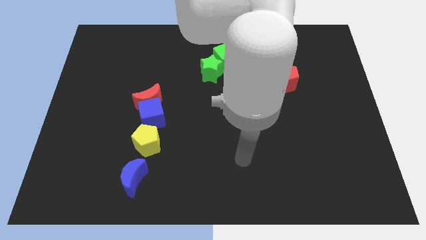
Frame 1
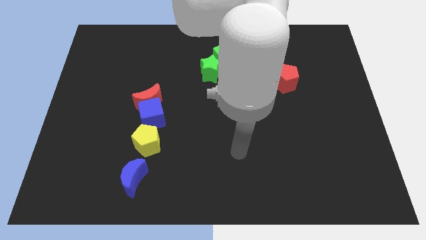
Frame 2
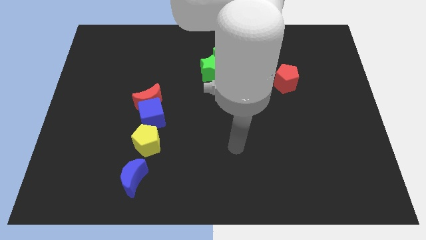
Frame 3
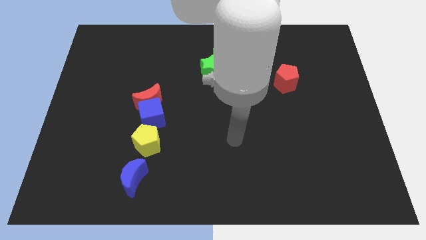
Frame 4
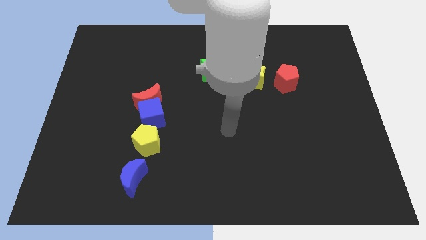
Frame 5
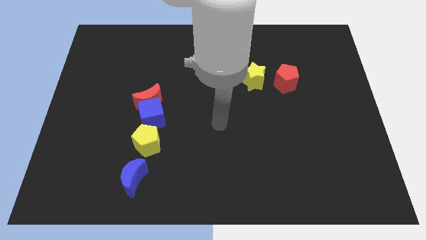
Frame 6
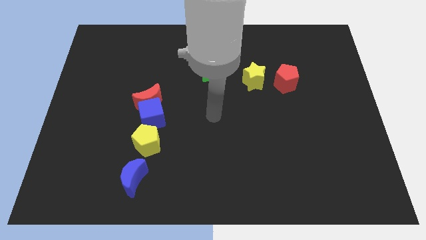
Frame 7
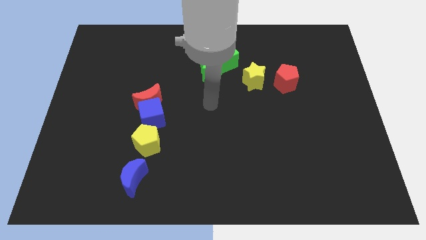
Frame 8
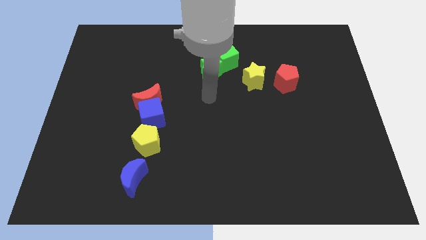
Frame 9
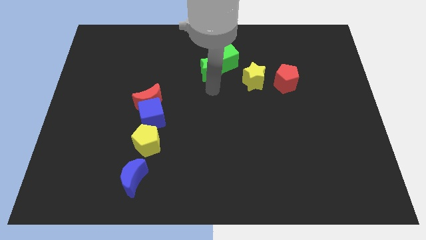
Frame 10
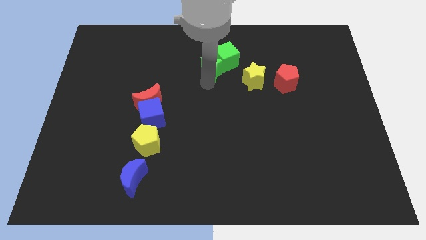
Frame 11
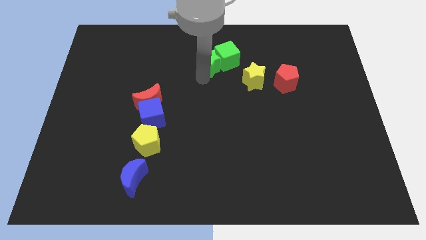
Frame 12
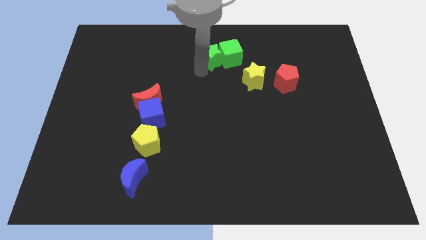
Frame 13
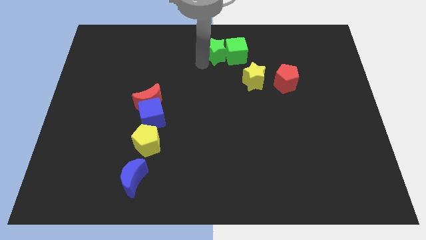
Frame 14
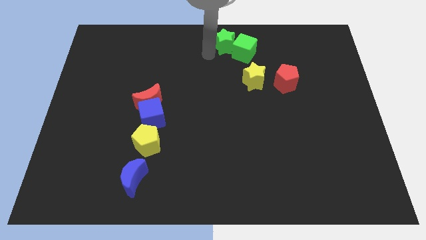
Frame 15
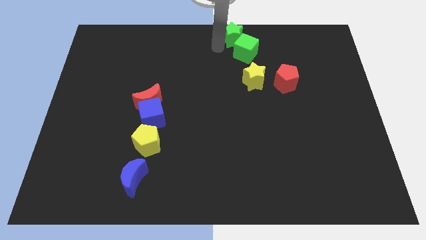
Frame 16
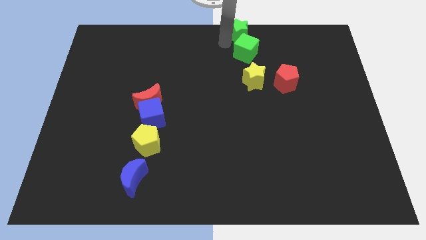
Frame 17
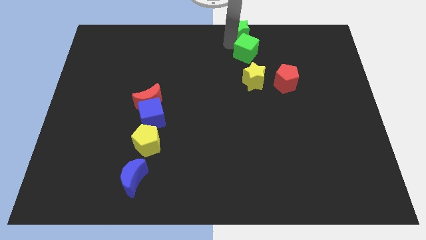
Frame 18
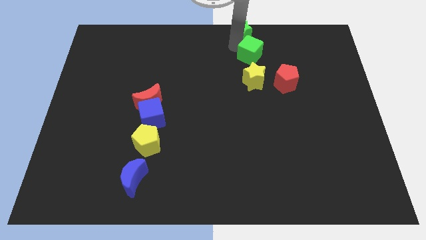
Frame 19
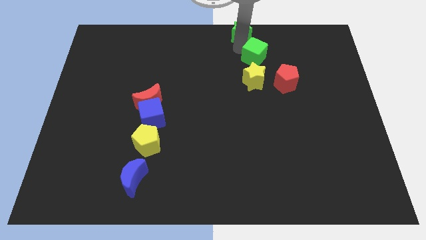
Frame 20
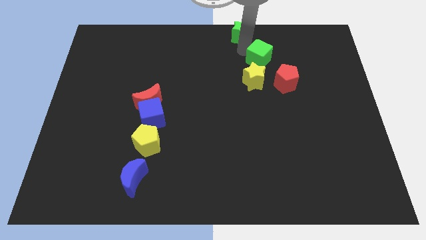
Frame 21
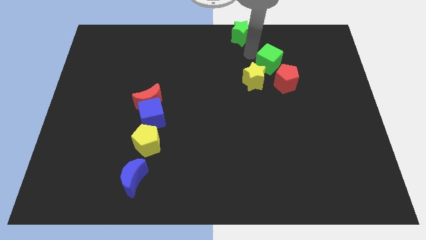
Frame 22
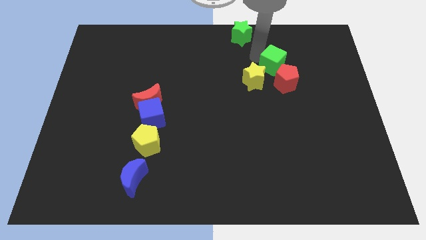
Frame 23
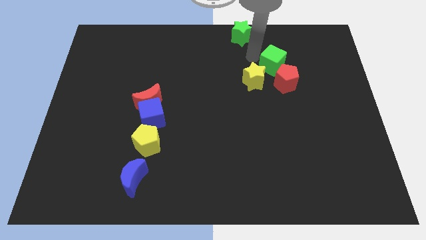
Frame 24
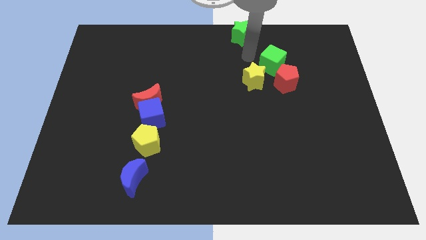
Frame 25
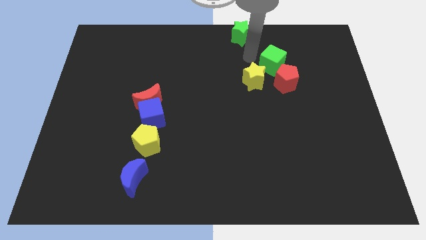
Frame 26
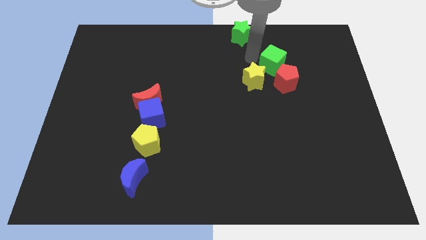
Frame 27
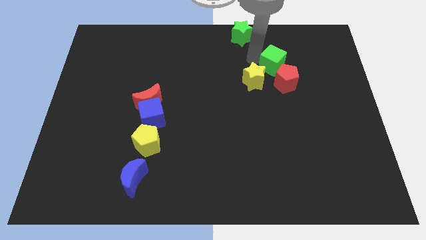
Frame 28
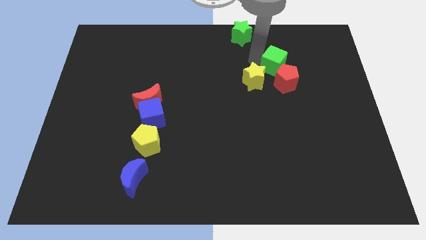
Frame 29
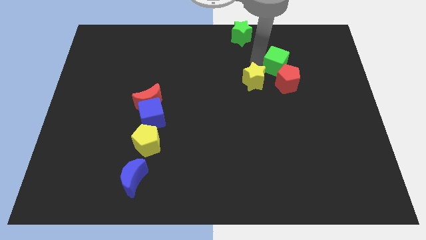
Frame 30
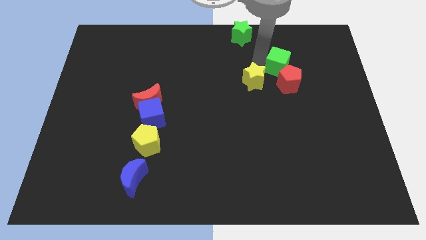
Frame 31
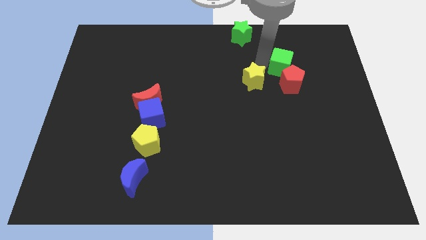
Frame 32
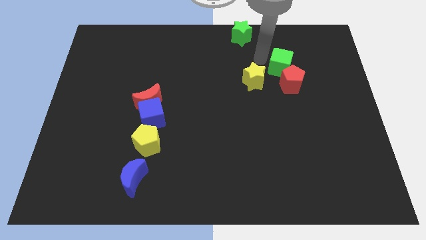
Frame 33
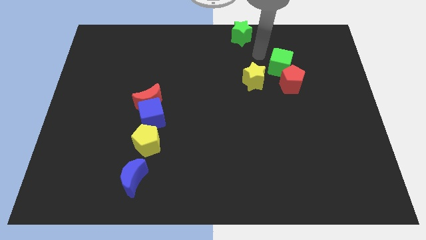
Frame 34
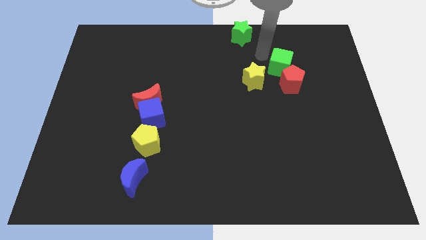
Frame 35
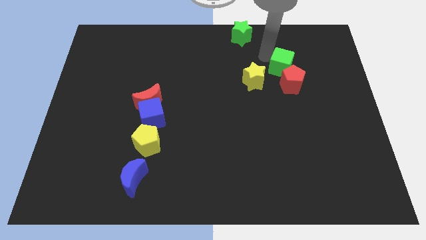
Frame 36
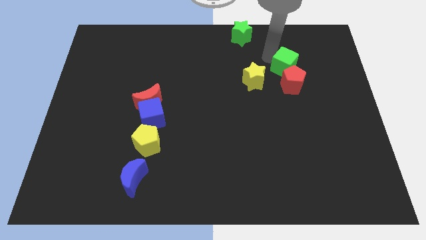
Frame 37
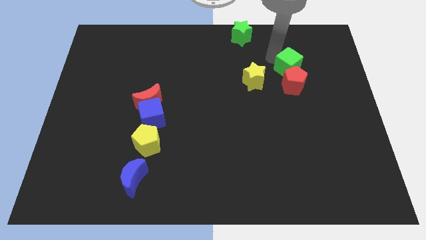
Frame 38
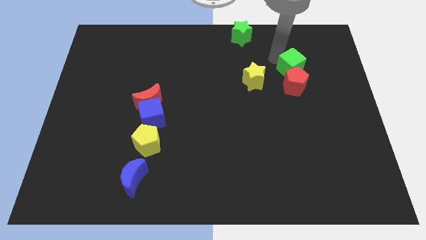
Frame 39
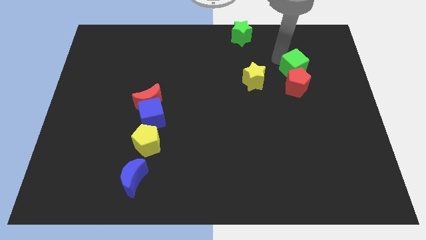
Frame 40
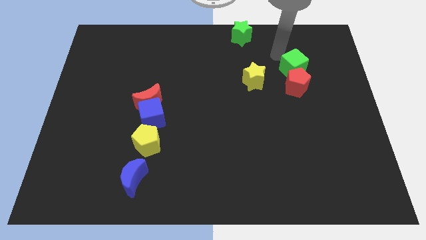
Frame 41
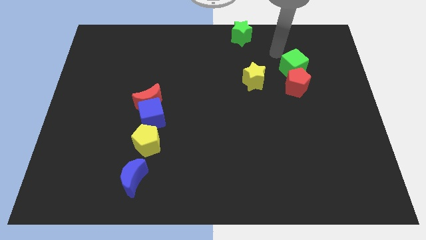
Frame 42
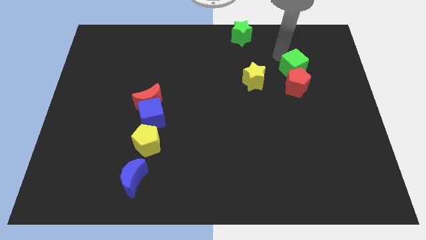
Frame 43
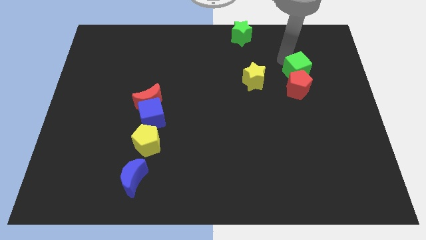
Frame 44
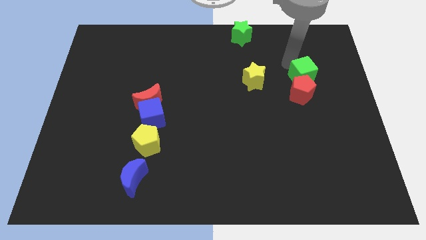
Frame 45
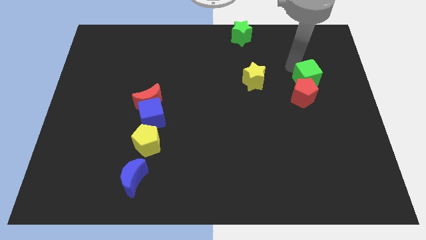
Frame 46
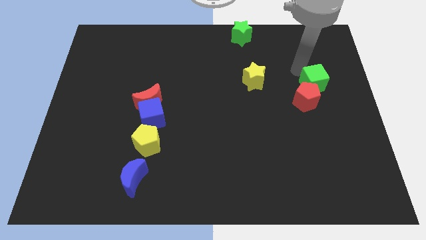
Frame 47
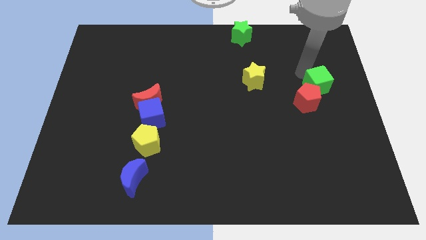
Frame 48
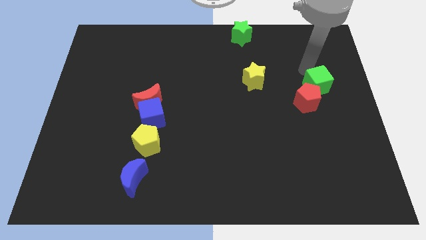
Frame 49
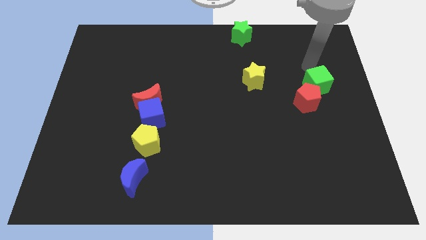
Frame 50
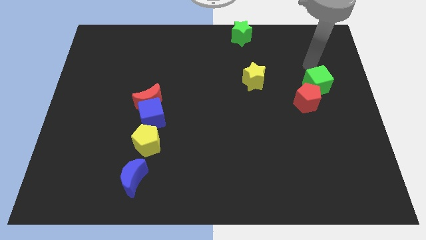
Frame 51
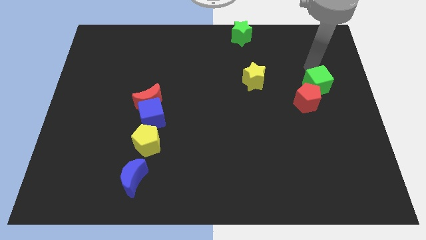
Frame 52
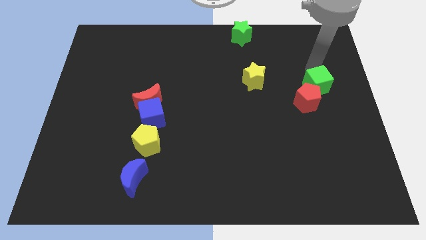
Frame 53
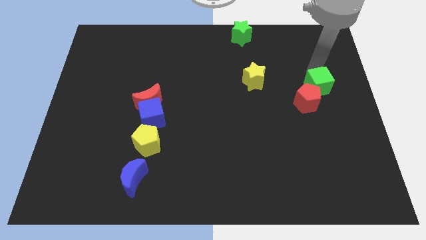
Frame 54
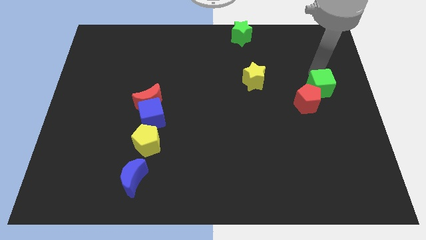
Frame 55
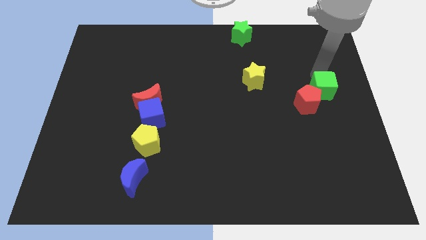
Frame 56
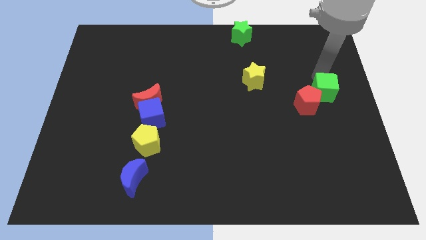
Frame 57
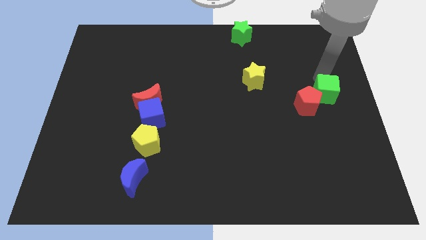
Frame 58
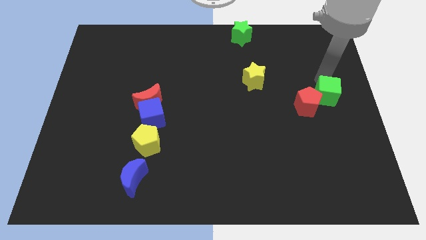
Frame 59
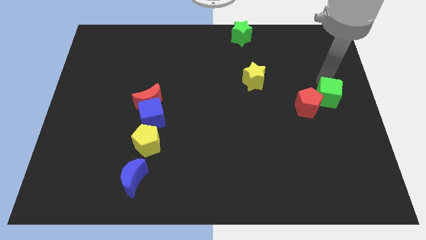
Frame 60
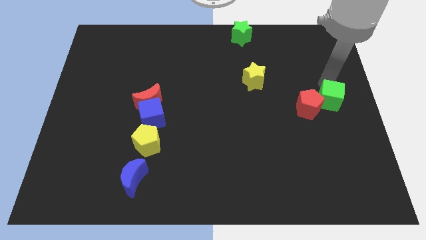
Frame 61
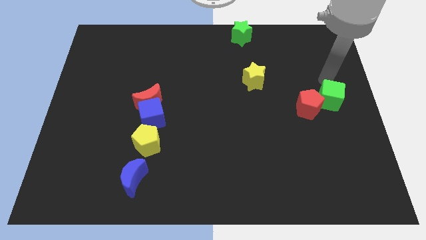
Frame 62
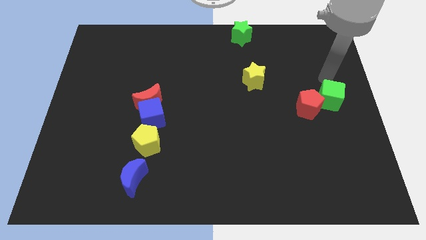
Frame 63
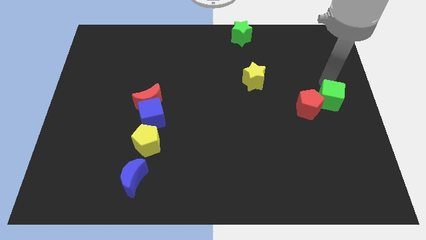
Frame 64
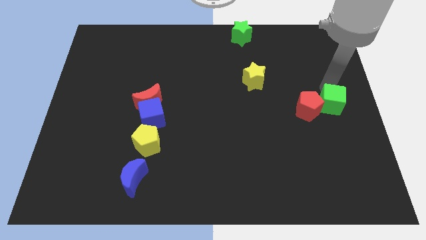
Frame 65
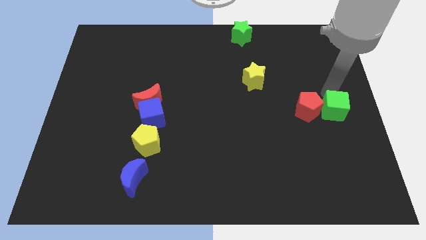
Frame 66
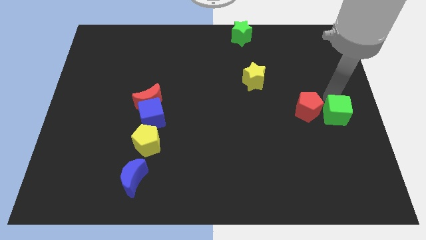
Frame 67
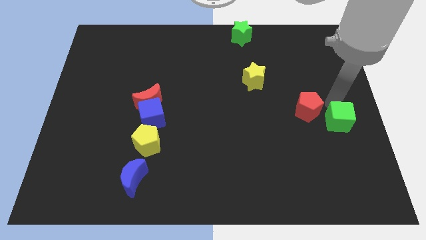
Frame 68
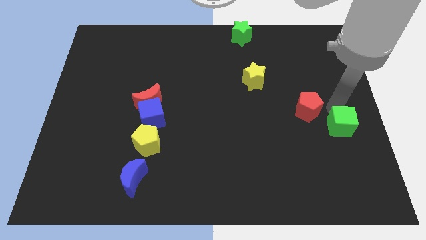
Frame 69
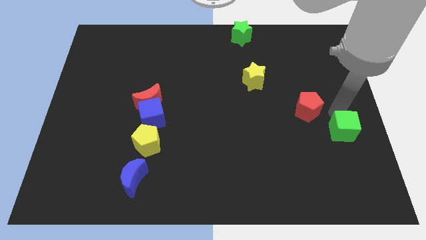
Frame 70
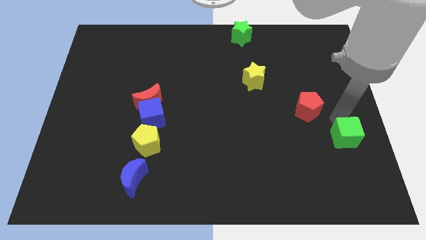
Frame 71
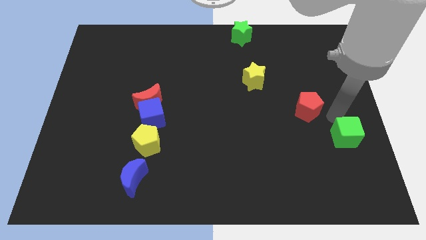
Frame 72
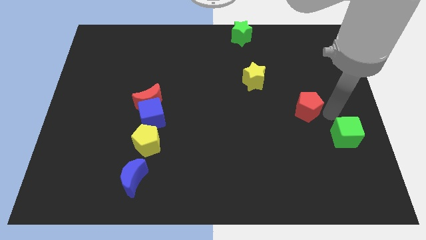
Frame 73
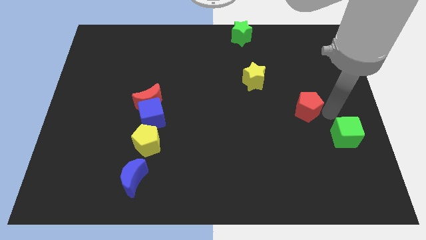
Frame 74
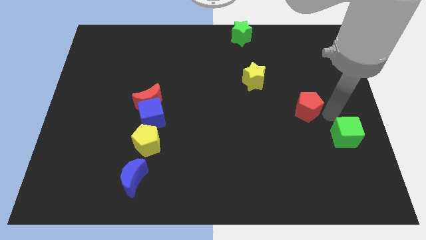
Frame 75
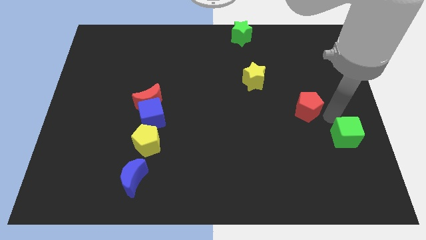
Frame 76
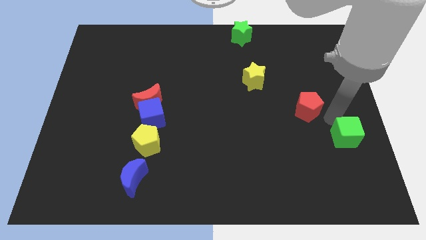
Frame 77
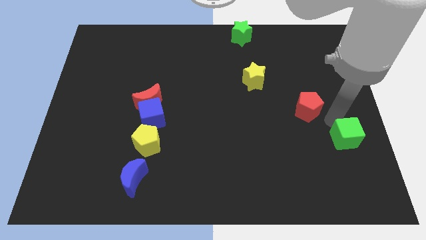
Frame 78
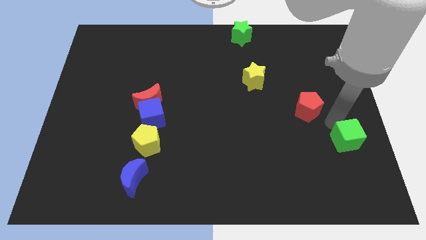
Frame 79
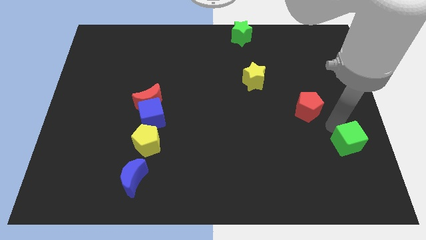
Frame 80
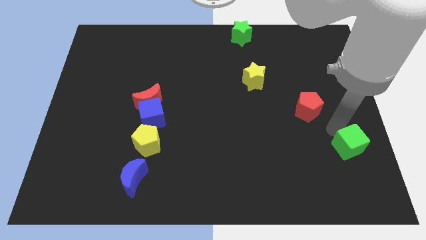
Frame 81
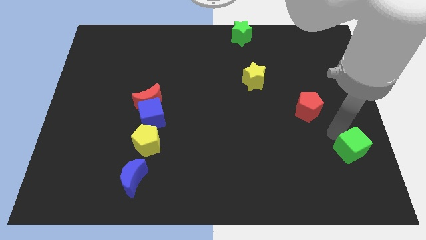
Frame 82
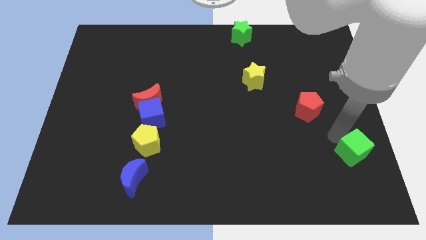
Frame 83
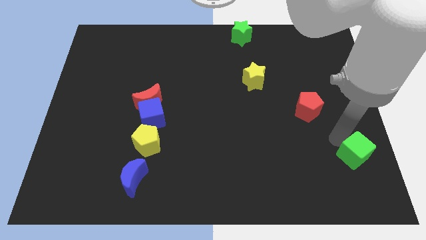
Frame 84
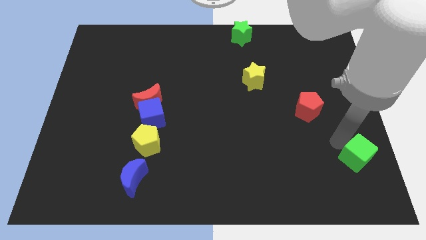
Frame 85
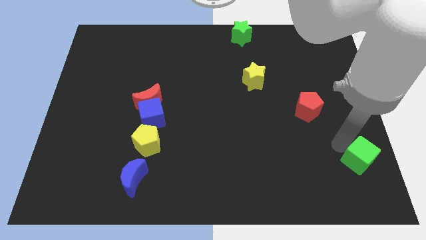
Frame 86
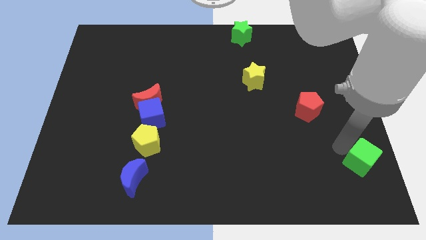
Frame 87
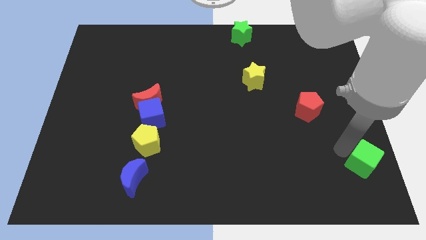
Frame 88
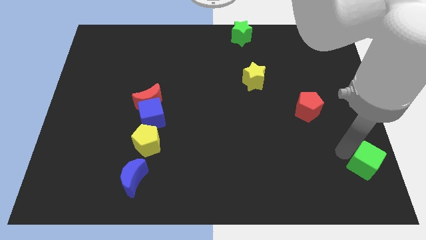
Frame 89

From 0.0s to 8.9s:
move the green cube to the bottom right corner
